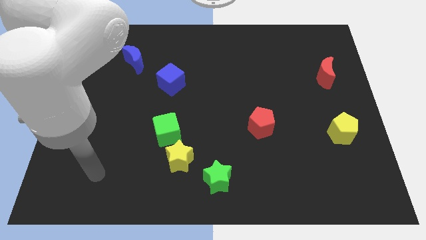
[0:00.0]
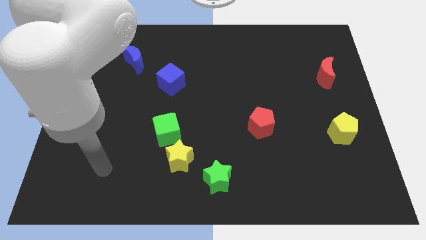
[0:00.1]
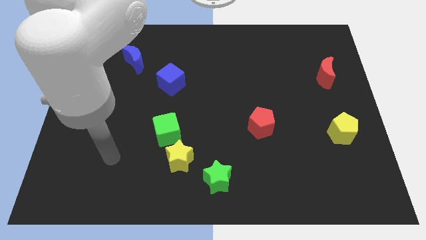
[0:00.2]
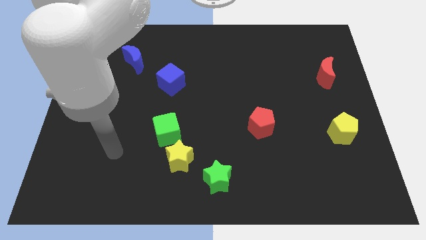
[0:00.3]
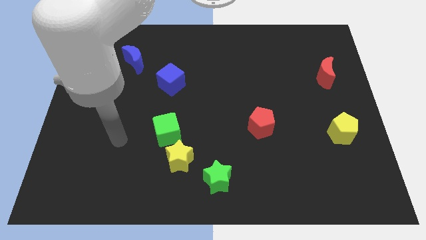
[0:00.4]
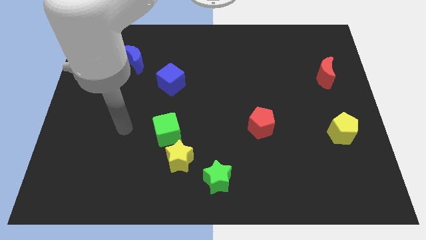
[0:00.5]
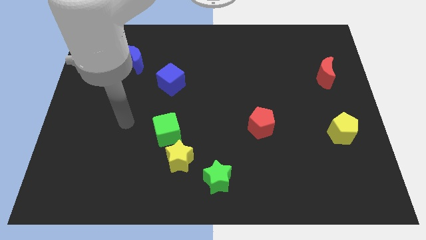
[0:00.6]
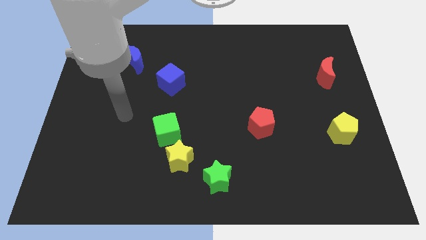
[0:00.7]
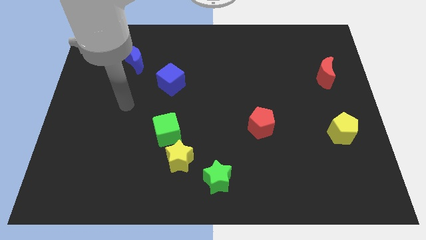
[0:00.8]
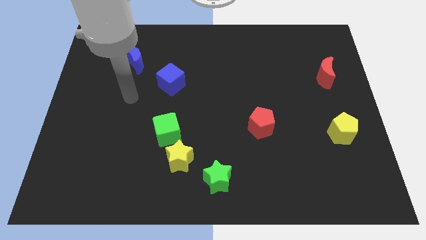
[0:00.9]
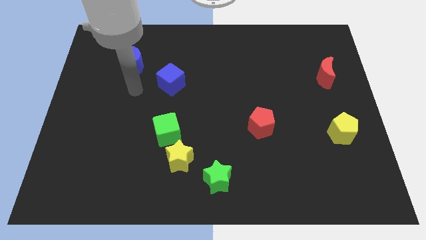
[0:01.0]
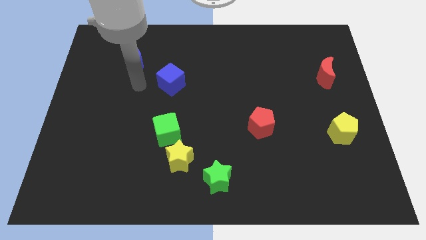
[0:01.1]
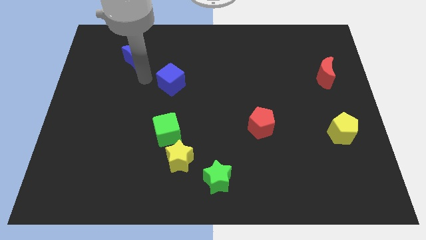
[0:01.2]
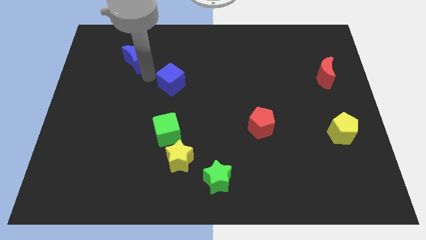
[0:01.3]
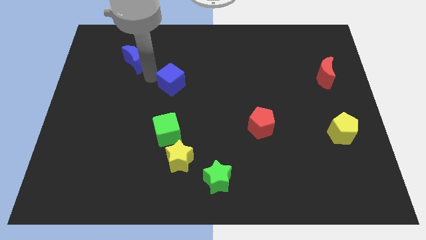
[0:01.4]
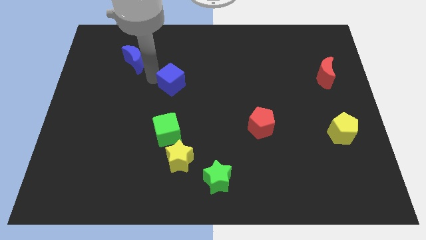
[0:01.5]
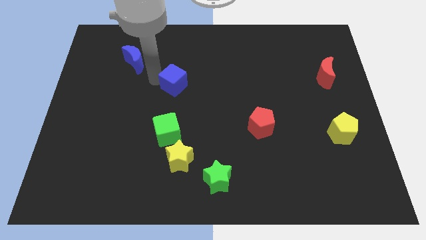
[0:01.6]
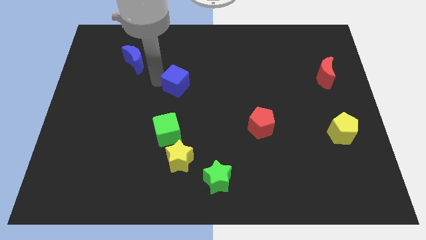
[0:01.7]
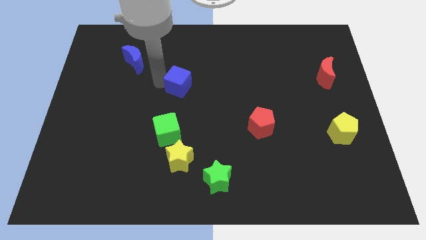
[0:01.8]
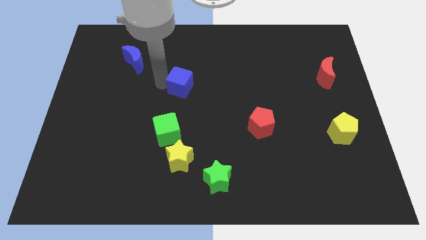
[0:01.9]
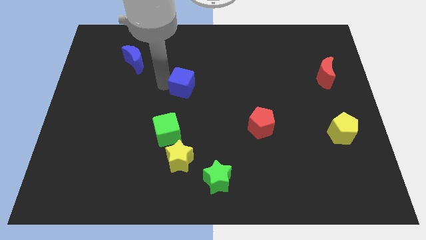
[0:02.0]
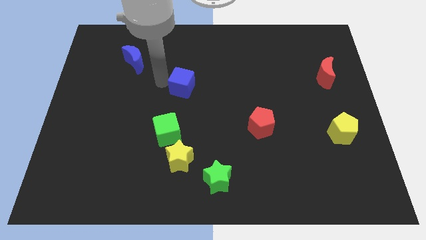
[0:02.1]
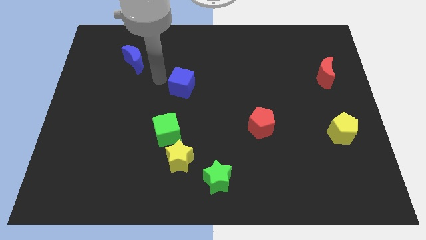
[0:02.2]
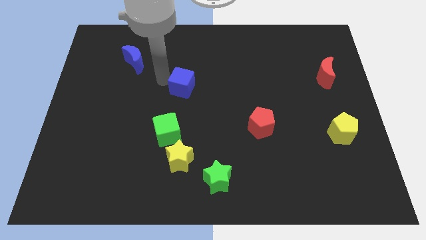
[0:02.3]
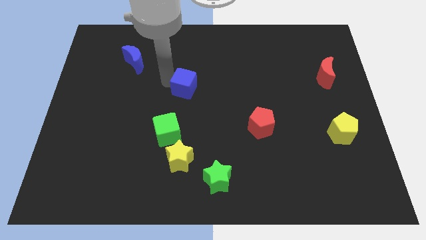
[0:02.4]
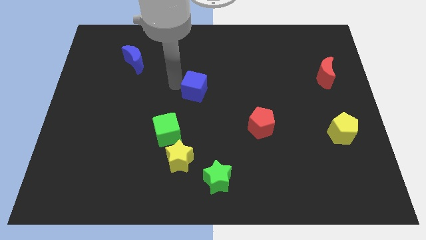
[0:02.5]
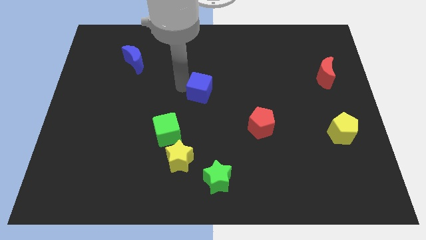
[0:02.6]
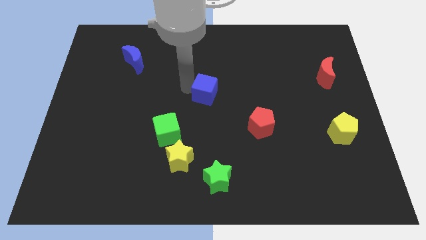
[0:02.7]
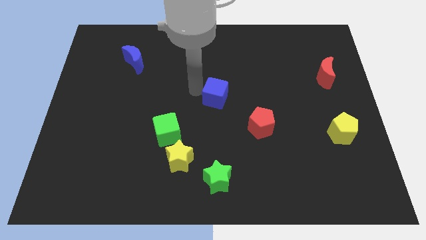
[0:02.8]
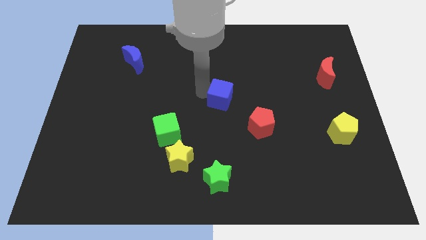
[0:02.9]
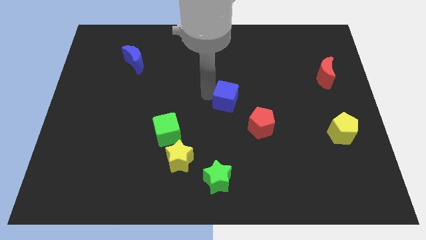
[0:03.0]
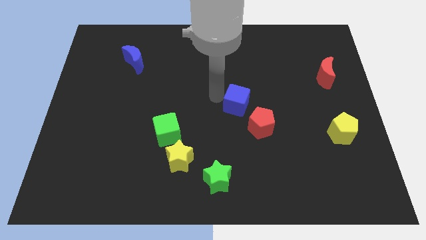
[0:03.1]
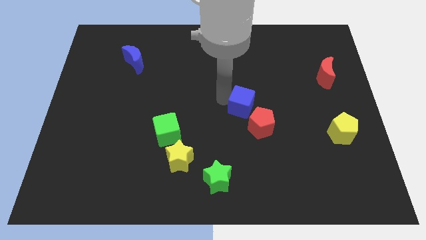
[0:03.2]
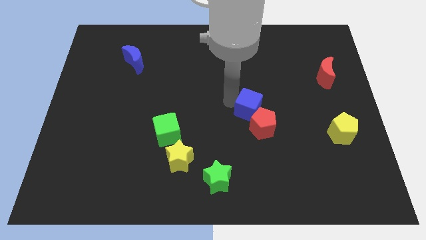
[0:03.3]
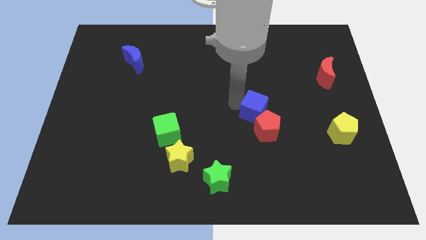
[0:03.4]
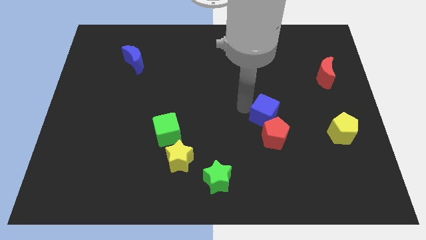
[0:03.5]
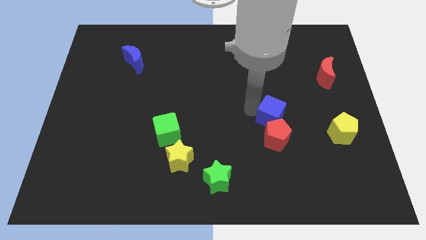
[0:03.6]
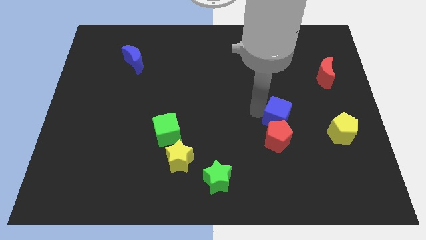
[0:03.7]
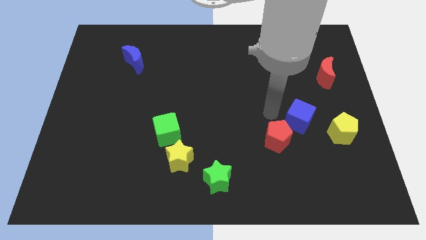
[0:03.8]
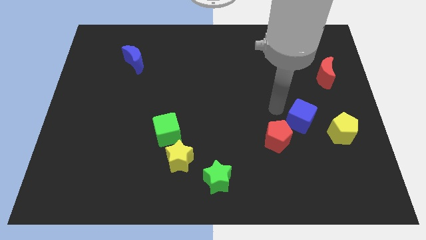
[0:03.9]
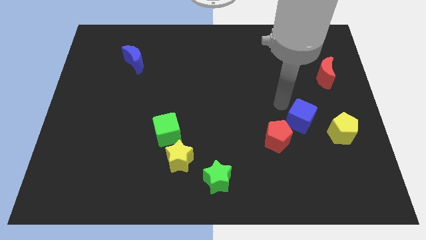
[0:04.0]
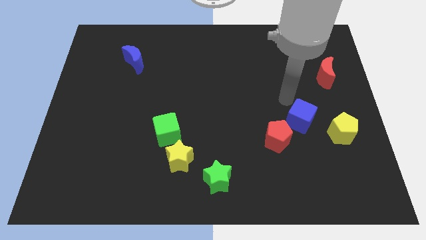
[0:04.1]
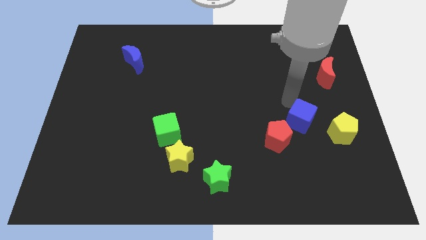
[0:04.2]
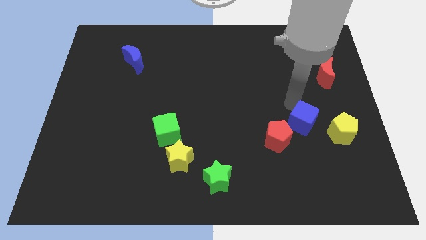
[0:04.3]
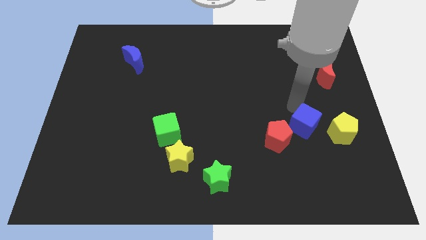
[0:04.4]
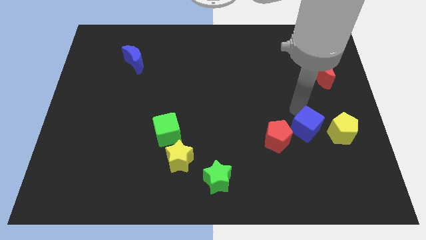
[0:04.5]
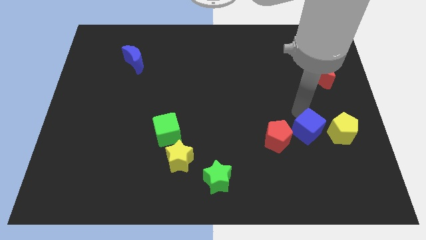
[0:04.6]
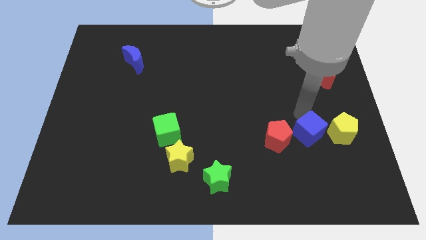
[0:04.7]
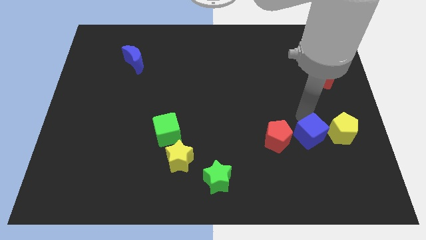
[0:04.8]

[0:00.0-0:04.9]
put the blue cube to the bottom left of the yellow pentagon

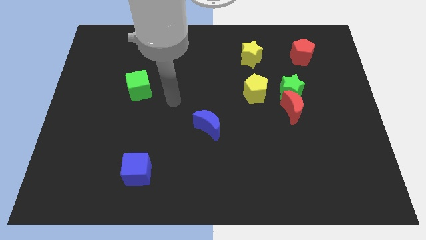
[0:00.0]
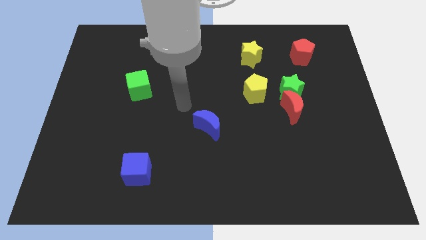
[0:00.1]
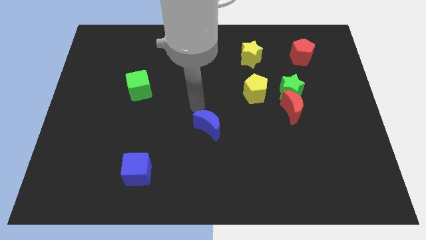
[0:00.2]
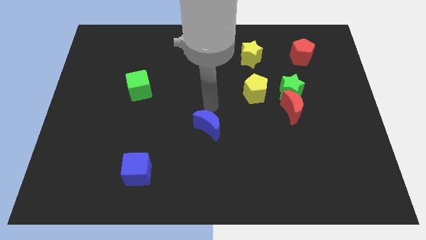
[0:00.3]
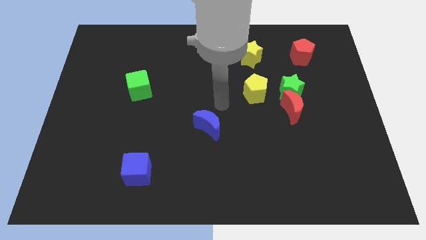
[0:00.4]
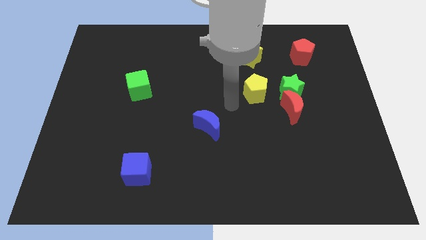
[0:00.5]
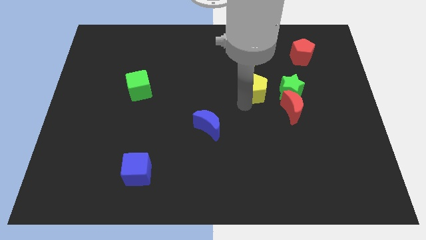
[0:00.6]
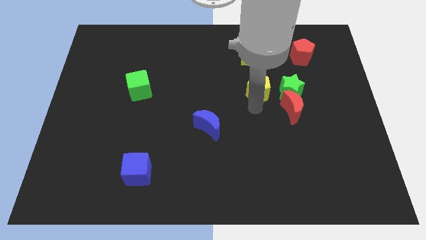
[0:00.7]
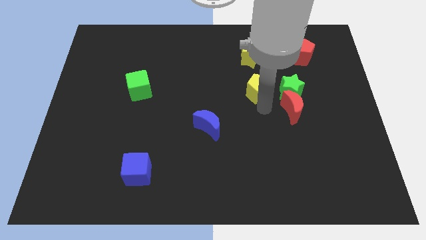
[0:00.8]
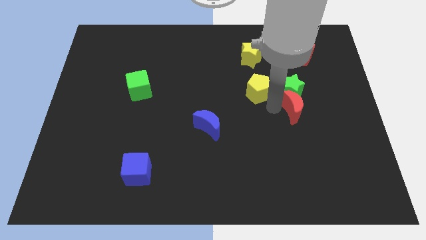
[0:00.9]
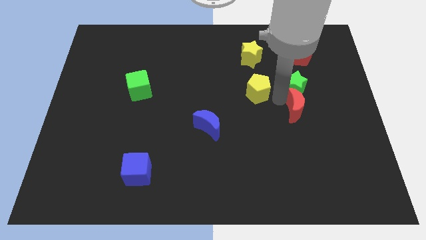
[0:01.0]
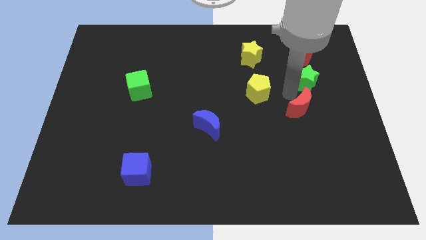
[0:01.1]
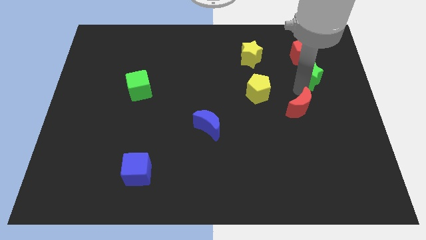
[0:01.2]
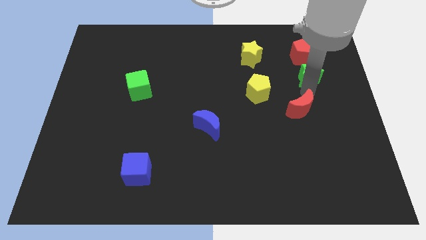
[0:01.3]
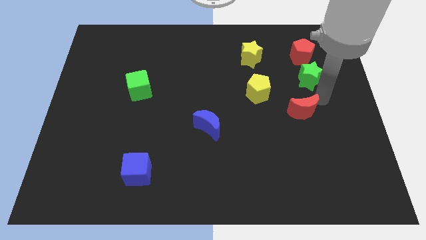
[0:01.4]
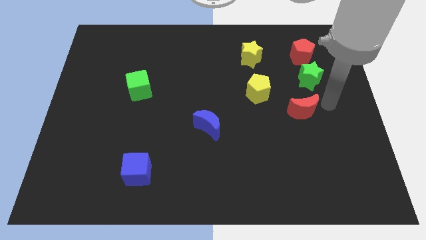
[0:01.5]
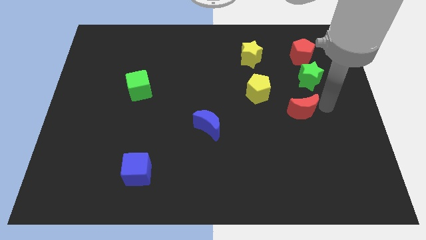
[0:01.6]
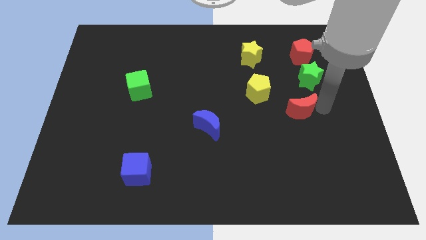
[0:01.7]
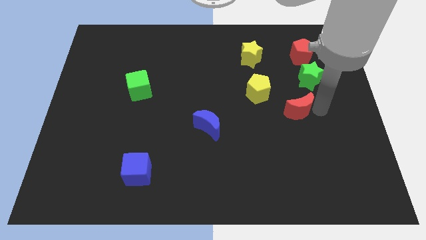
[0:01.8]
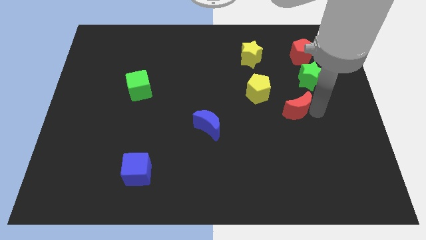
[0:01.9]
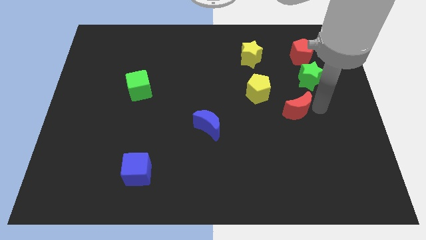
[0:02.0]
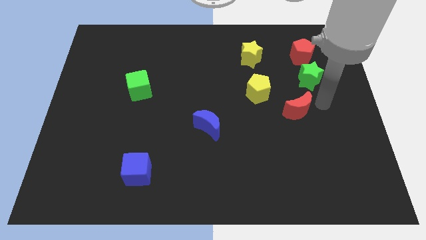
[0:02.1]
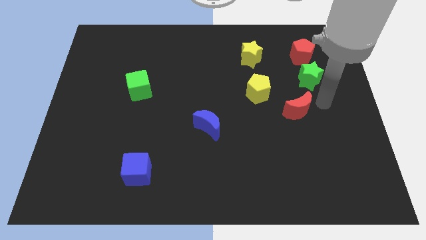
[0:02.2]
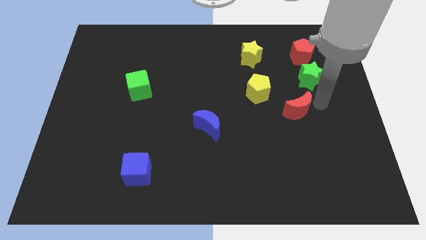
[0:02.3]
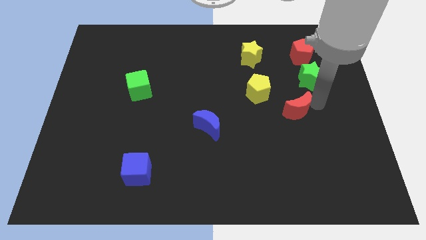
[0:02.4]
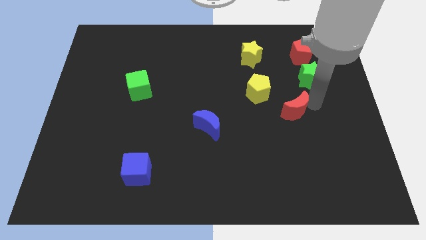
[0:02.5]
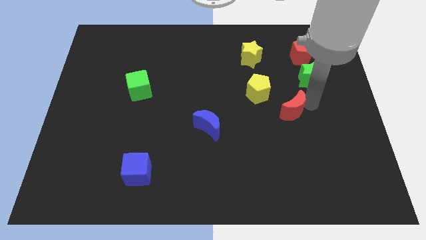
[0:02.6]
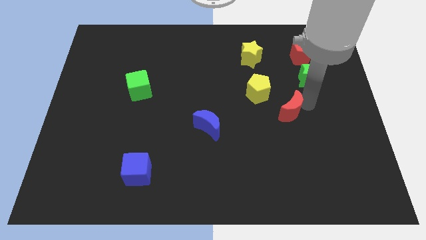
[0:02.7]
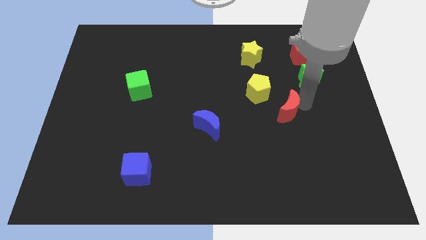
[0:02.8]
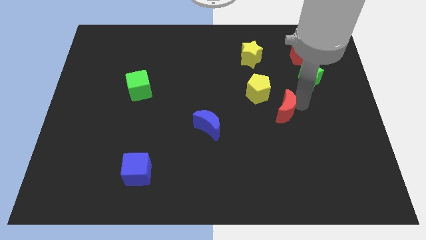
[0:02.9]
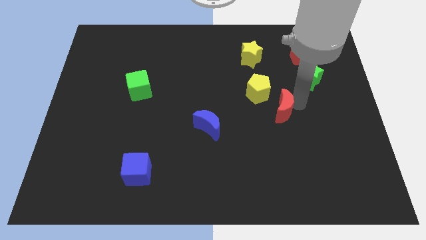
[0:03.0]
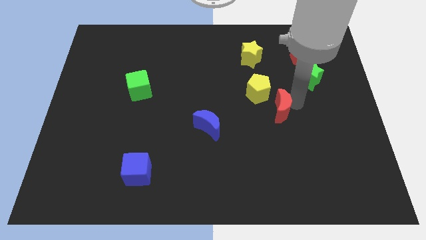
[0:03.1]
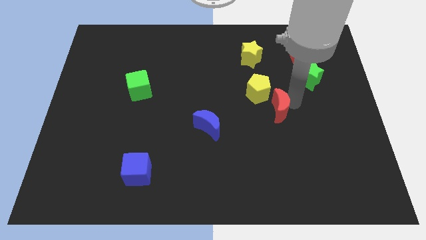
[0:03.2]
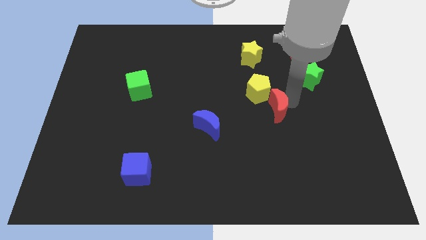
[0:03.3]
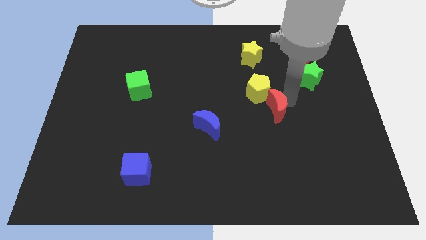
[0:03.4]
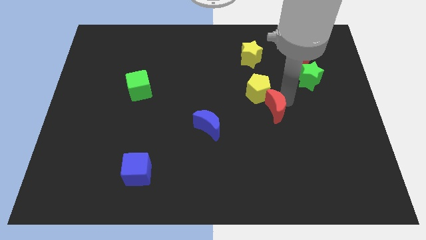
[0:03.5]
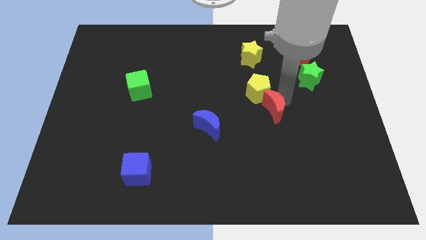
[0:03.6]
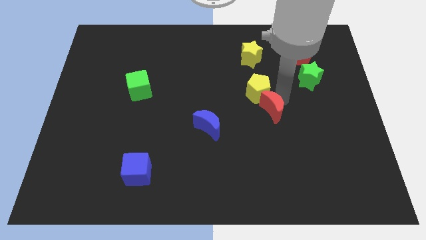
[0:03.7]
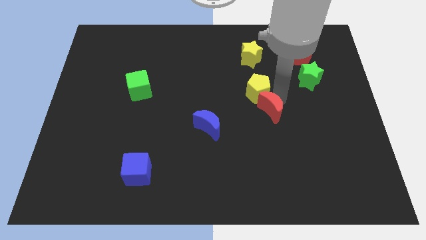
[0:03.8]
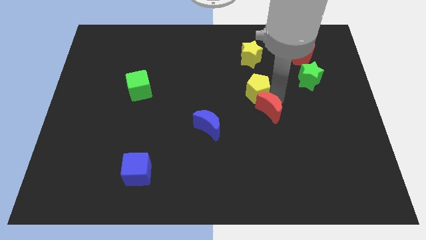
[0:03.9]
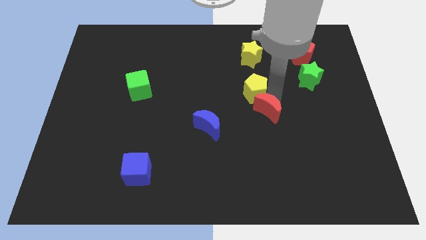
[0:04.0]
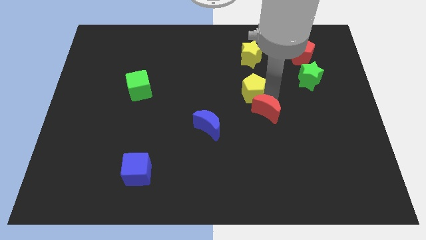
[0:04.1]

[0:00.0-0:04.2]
put the red moon to the right of the blue moon
